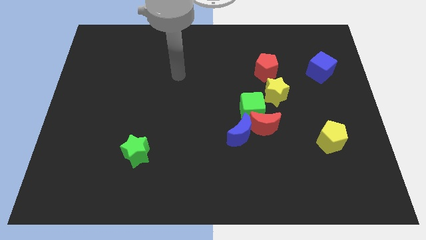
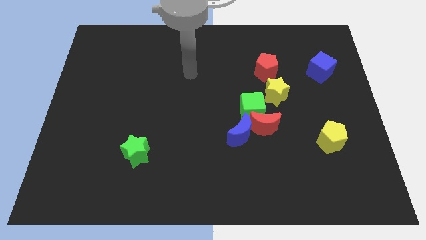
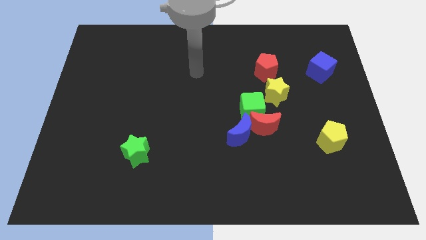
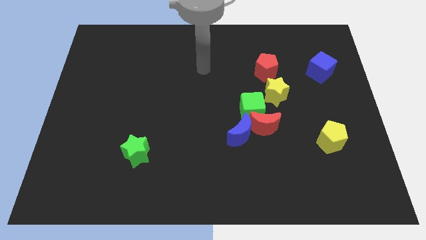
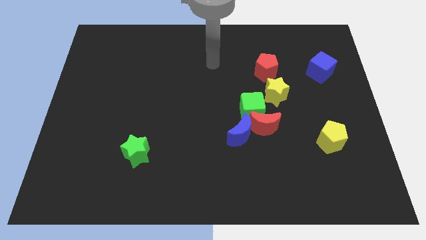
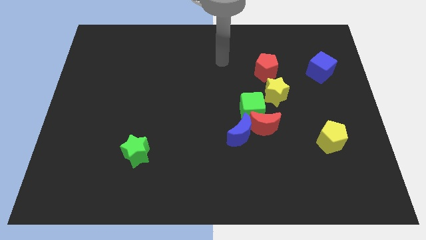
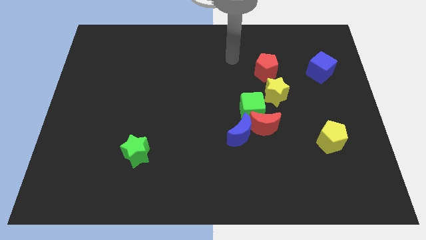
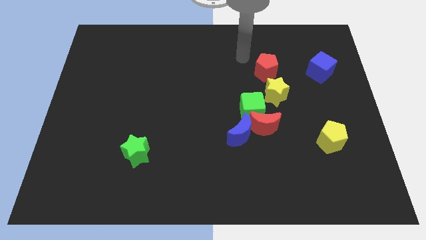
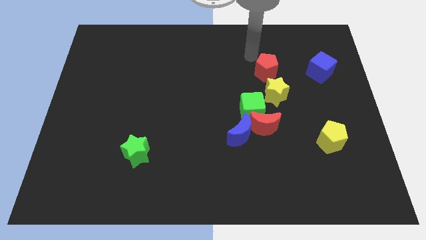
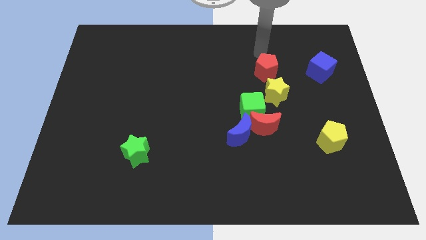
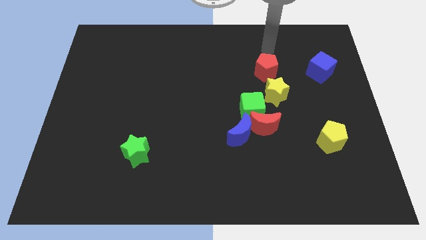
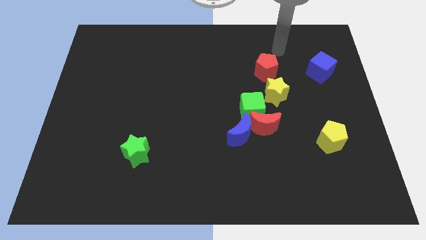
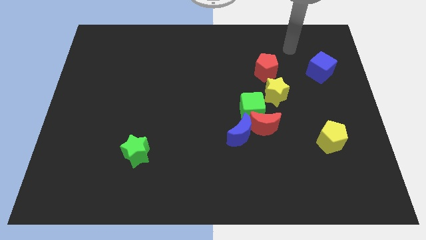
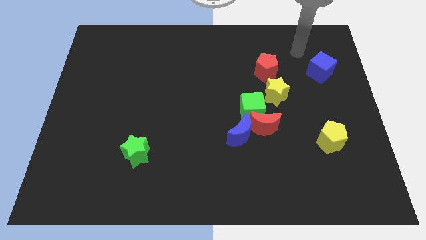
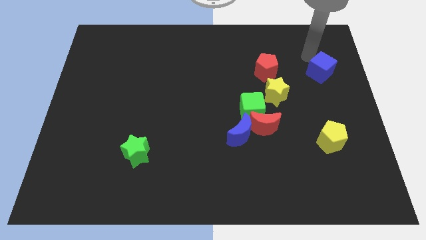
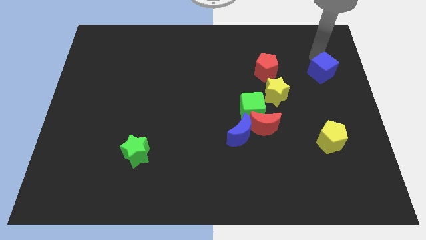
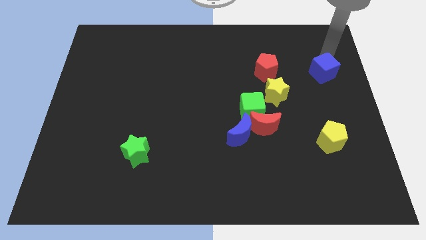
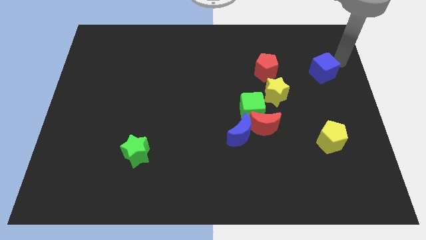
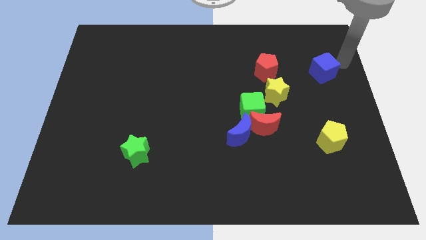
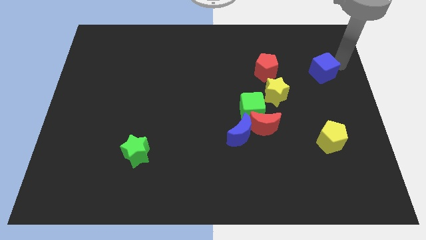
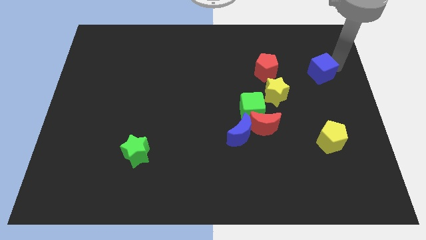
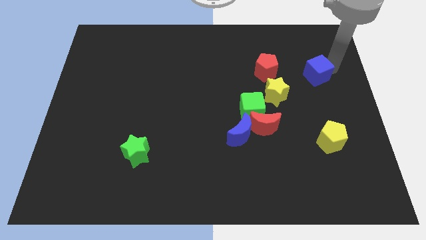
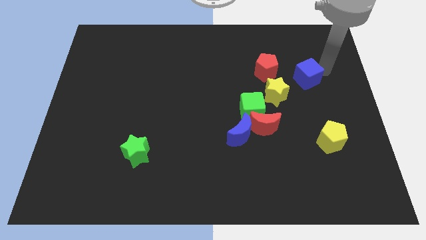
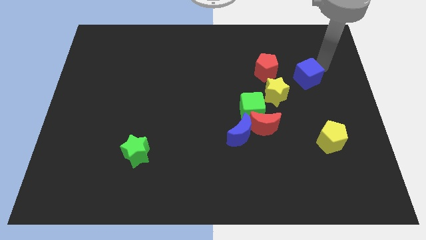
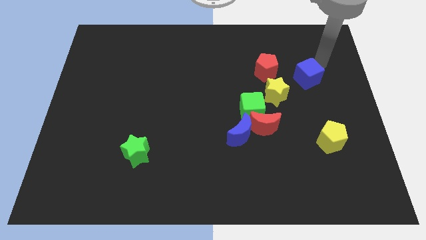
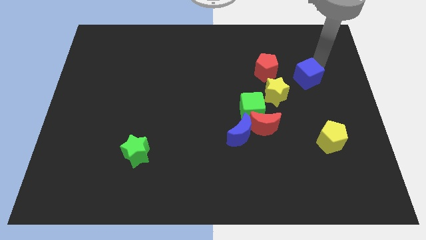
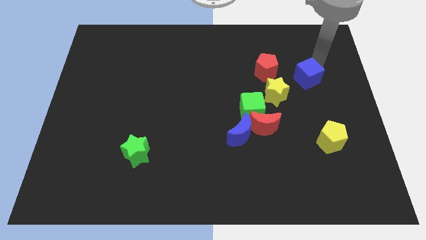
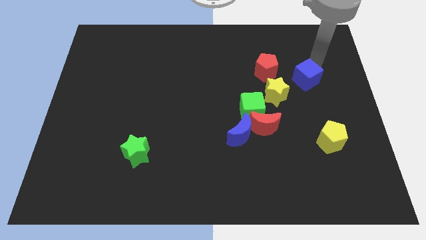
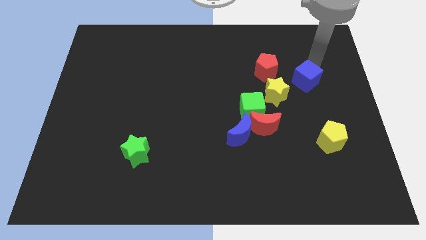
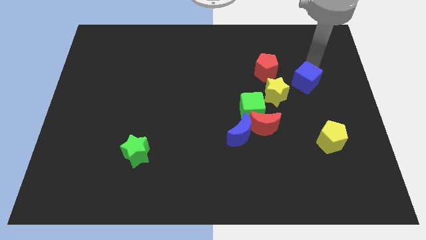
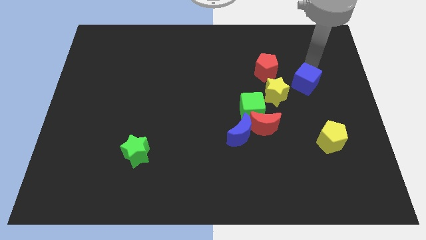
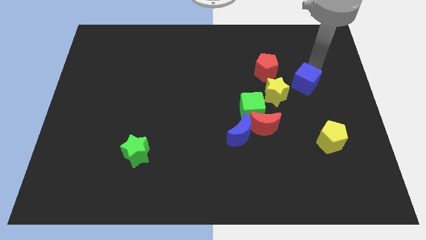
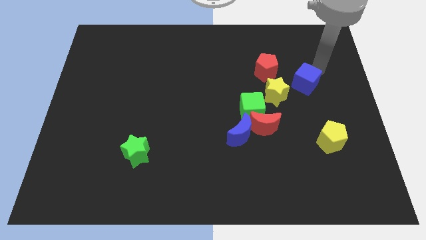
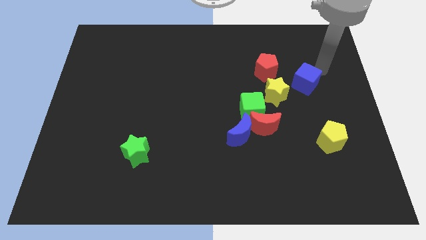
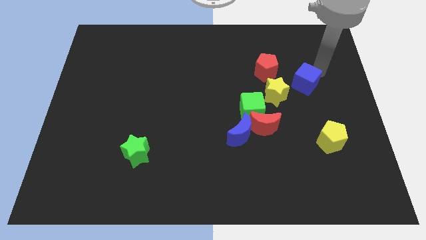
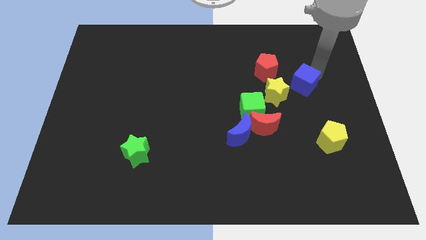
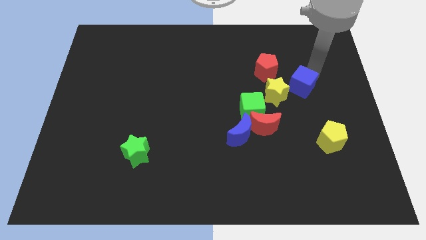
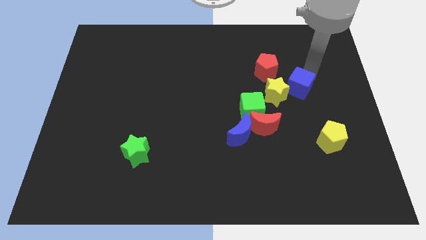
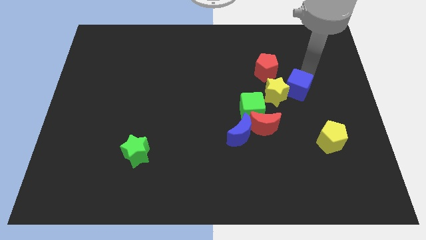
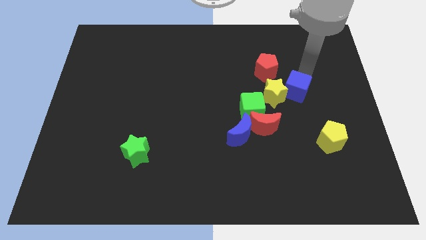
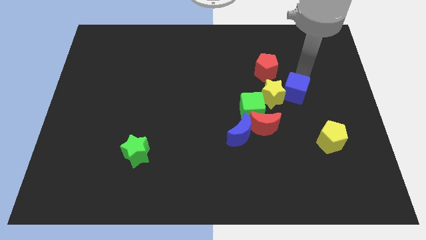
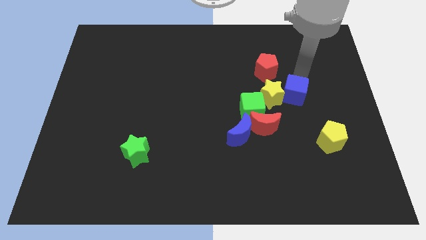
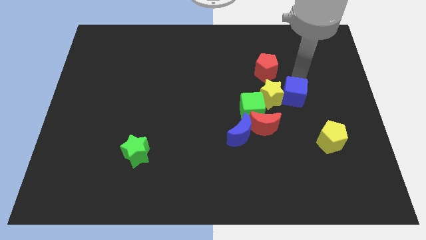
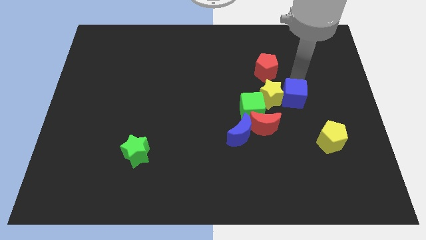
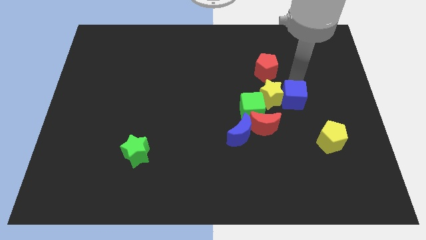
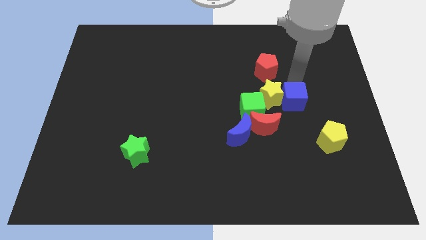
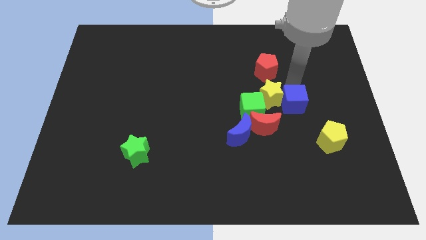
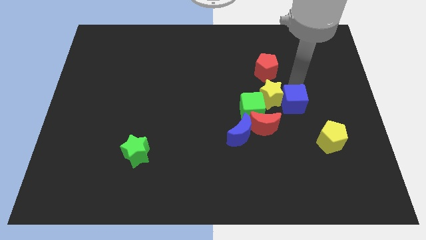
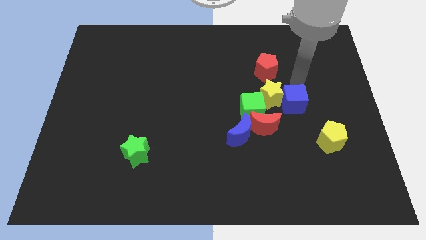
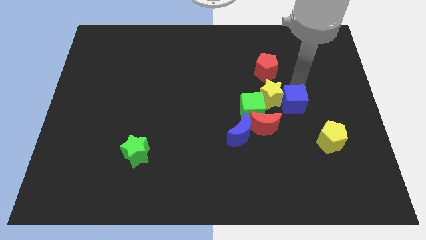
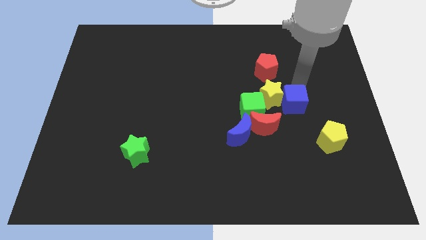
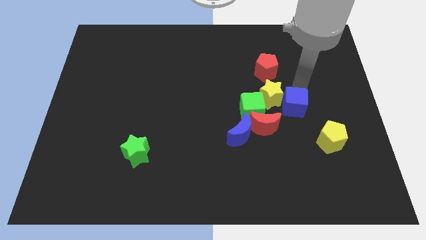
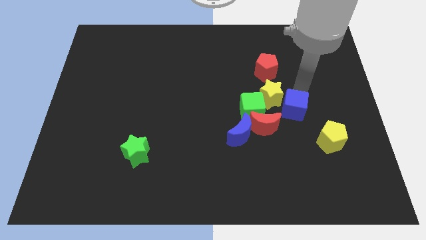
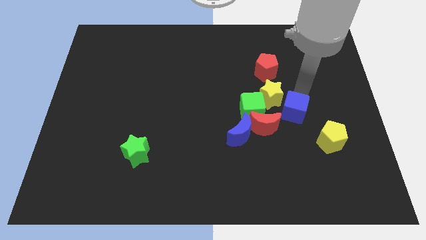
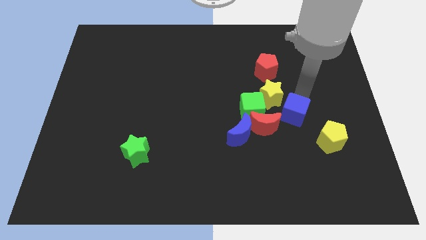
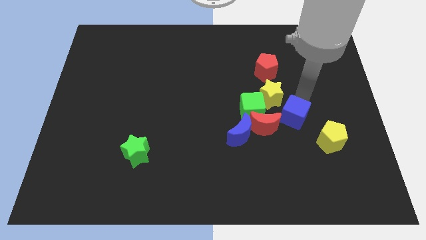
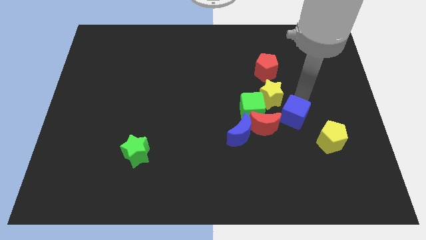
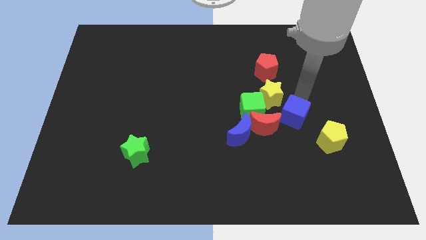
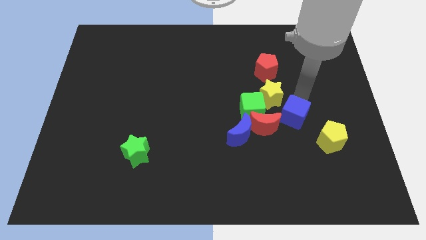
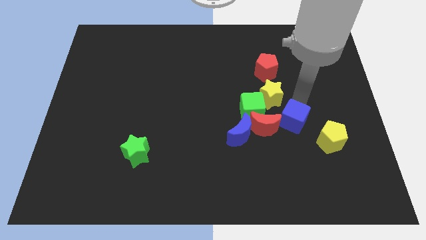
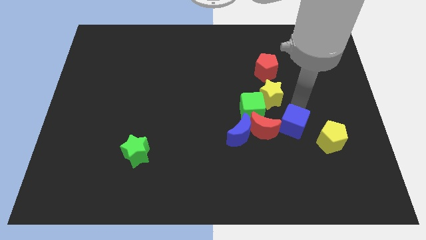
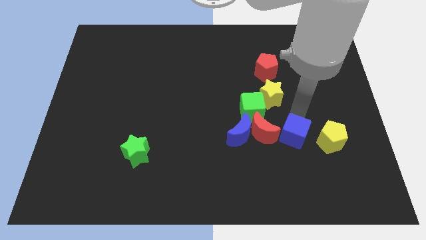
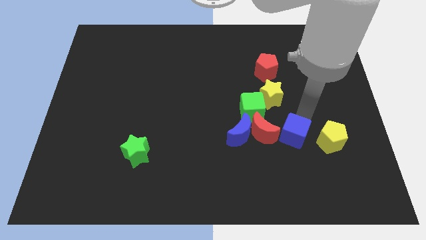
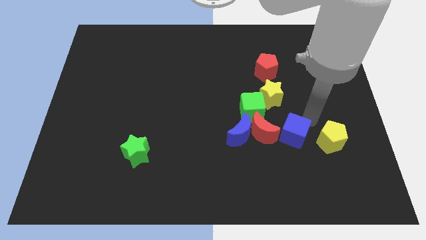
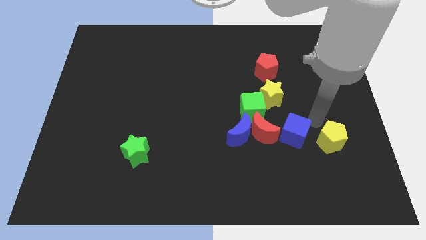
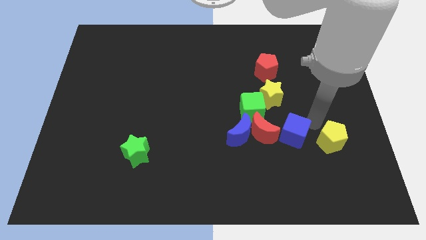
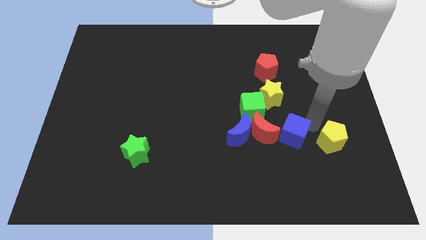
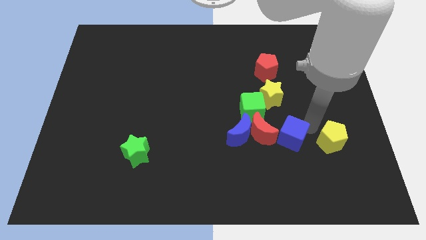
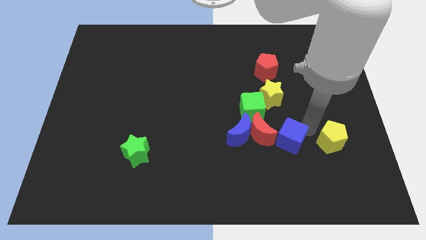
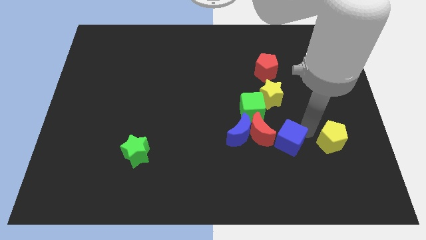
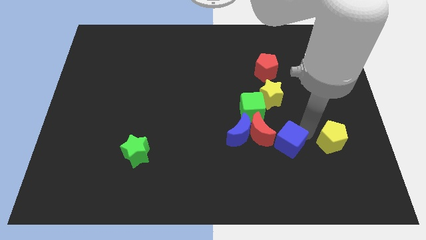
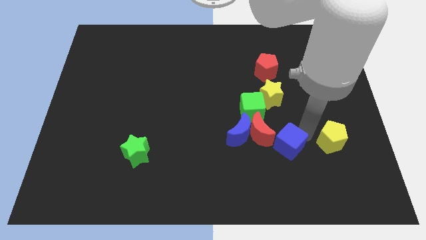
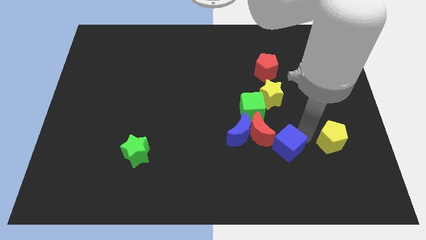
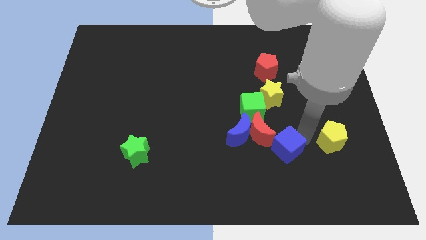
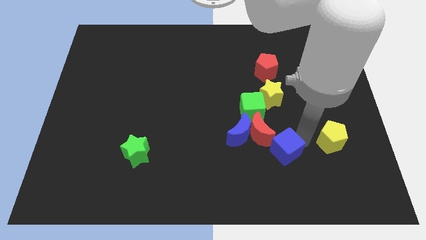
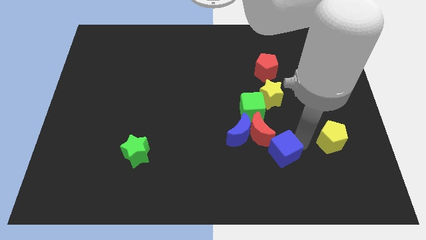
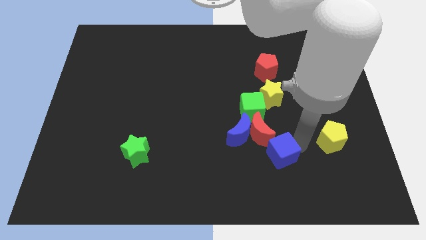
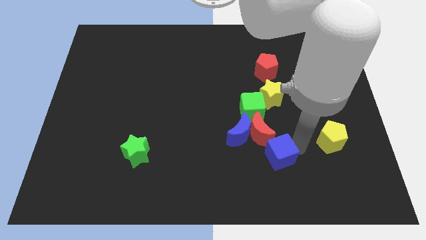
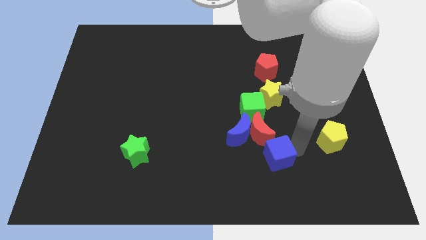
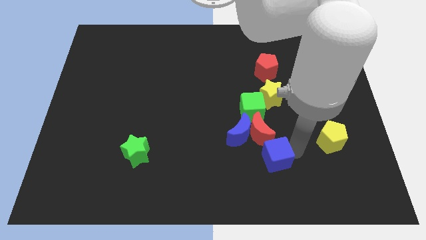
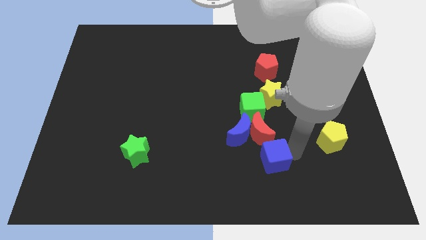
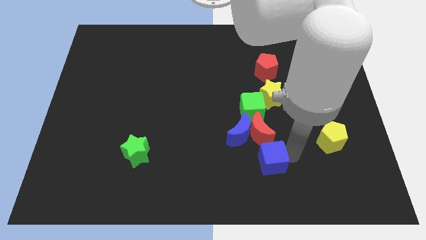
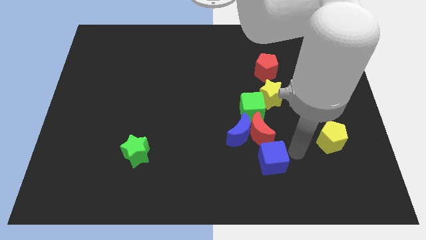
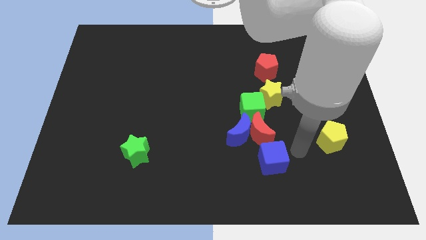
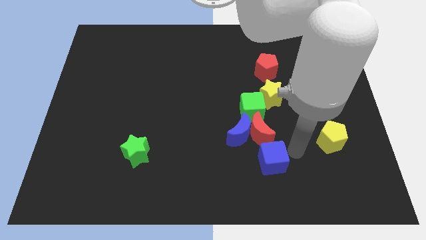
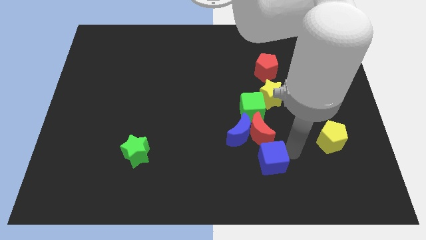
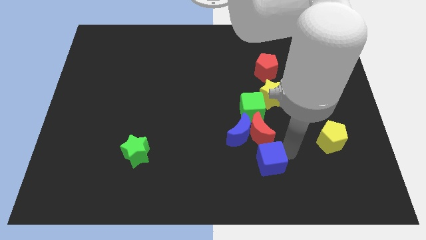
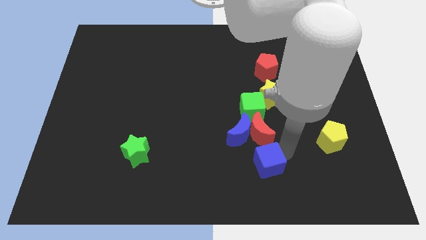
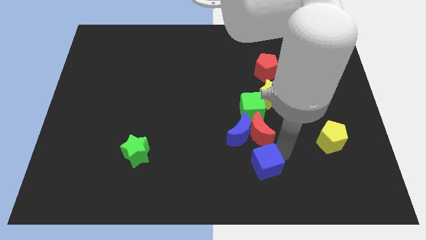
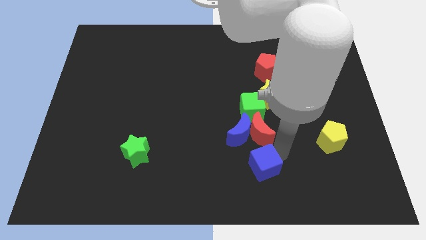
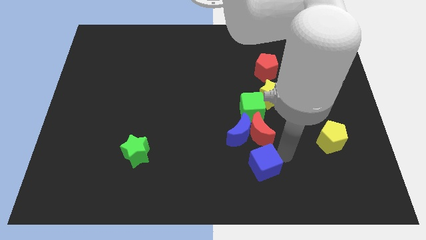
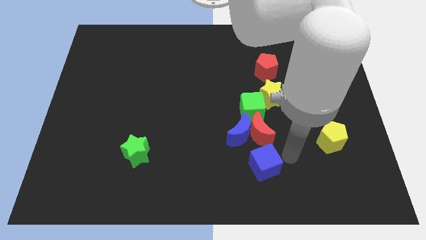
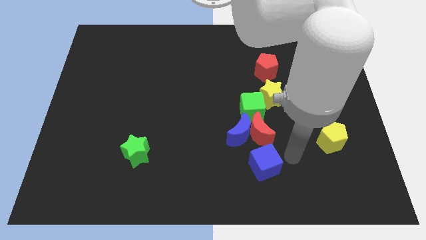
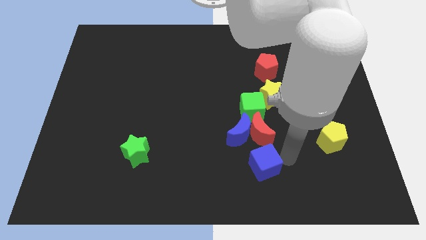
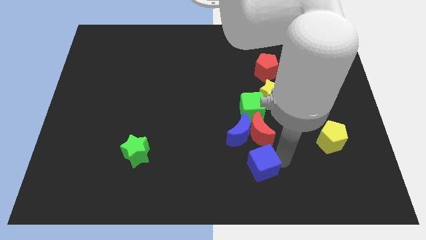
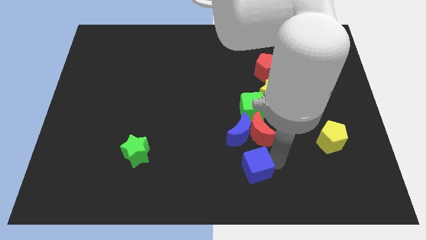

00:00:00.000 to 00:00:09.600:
put the blue cube to the bottom side
